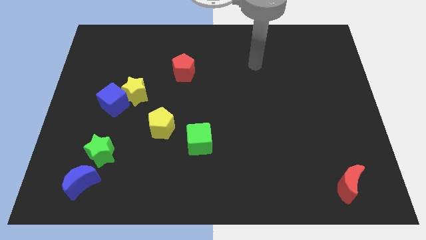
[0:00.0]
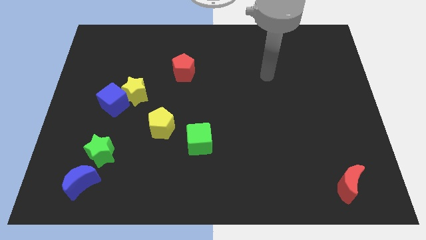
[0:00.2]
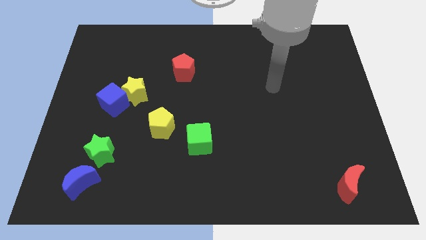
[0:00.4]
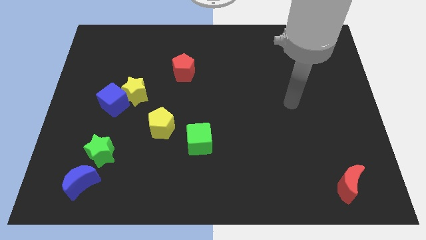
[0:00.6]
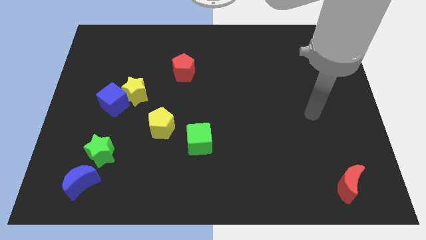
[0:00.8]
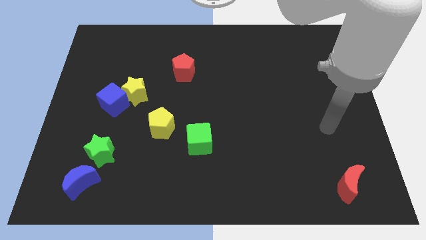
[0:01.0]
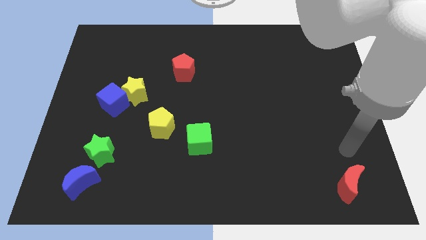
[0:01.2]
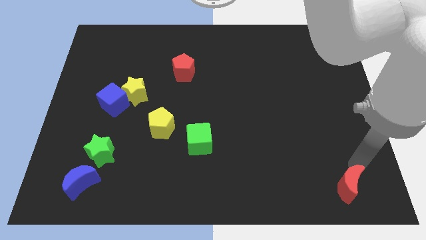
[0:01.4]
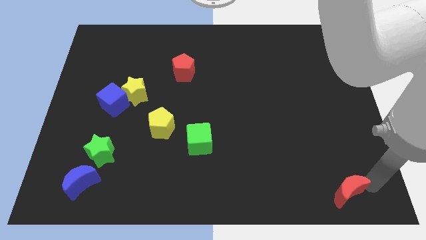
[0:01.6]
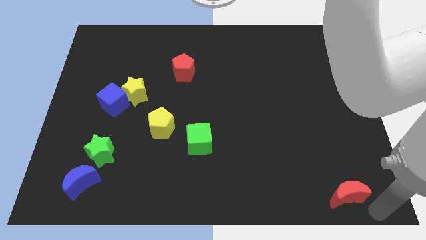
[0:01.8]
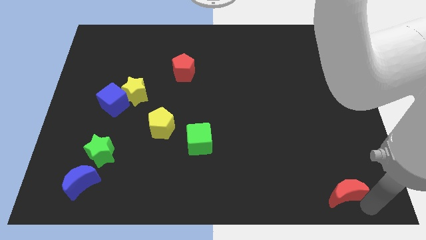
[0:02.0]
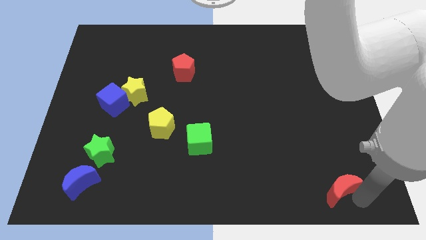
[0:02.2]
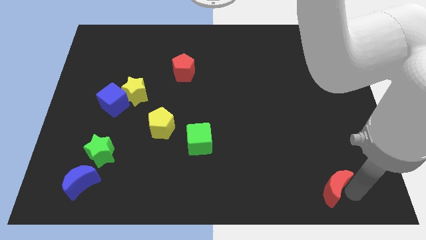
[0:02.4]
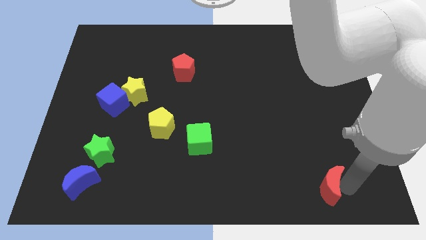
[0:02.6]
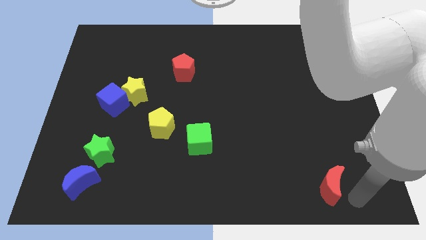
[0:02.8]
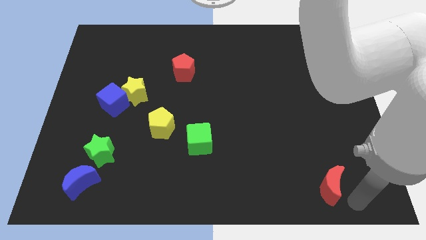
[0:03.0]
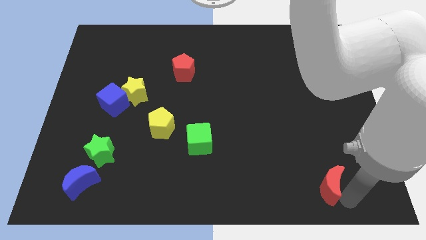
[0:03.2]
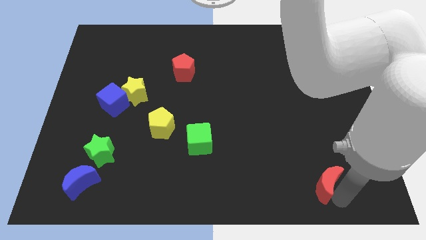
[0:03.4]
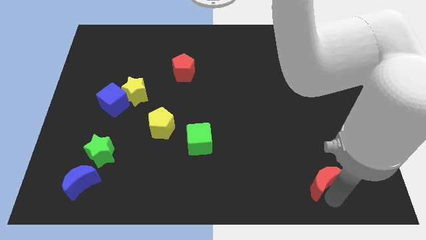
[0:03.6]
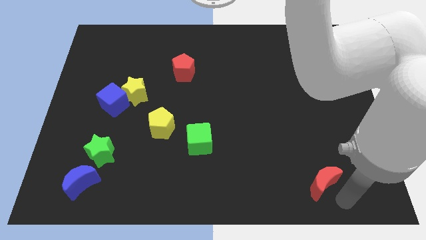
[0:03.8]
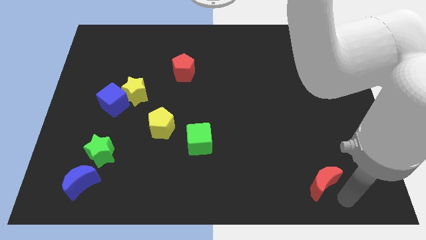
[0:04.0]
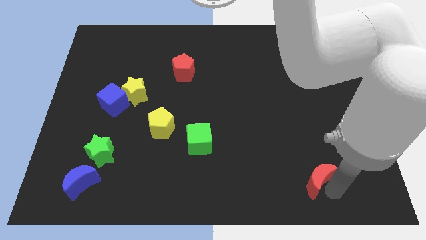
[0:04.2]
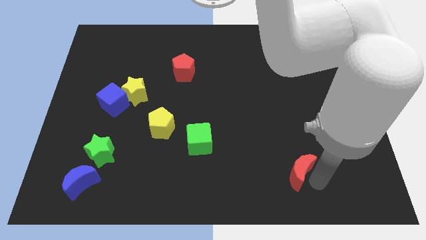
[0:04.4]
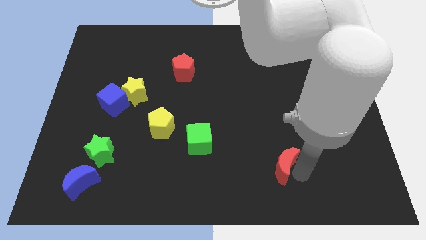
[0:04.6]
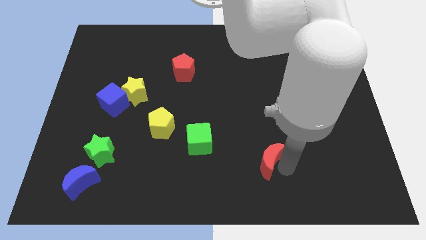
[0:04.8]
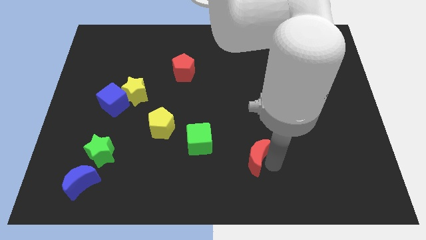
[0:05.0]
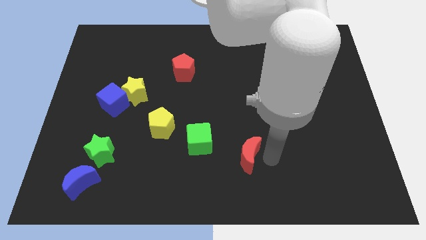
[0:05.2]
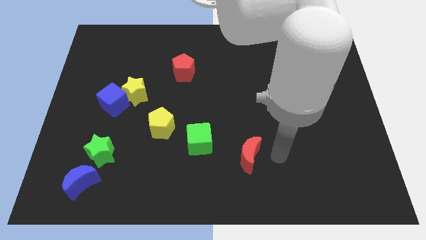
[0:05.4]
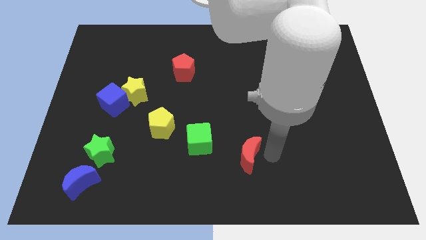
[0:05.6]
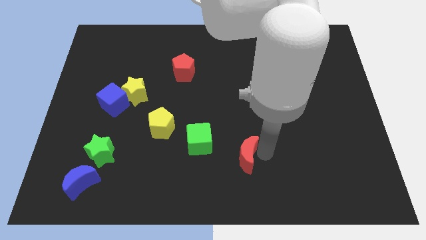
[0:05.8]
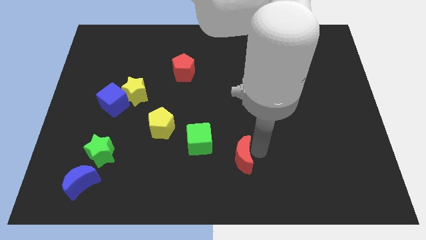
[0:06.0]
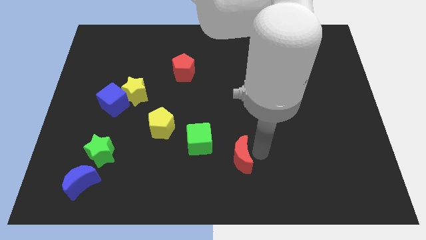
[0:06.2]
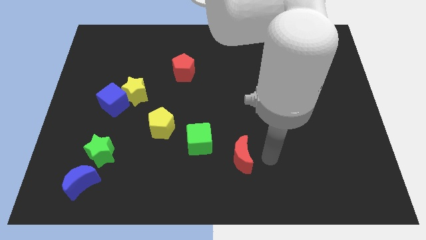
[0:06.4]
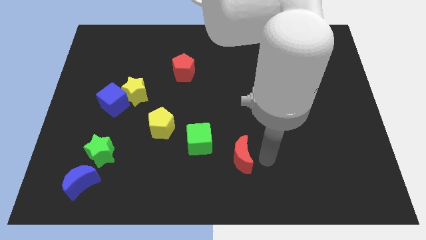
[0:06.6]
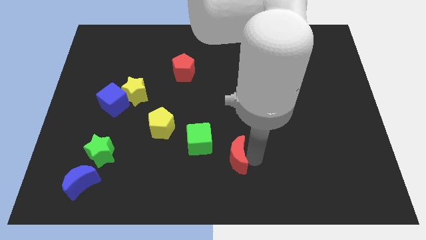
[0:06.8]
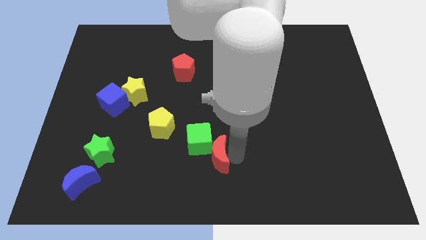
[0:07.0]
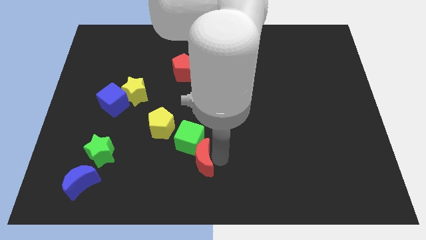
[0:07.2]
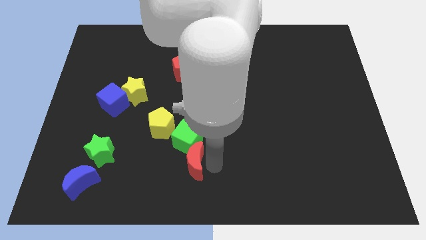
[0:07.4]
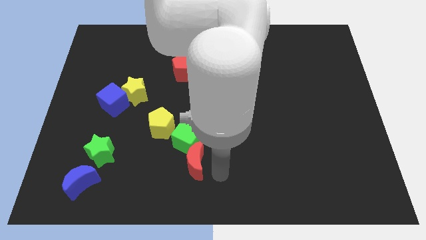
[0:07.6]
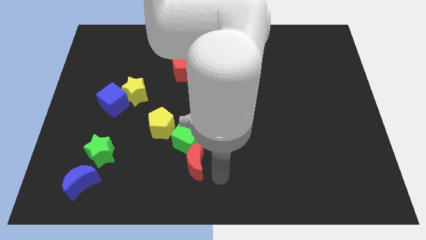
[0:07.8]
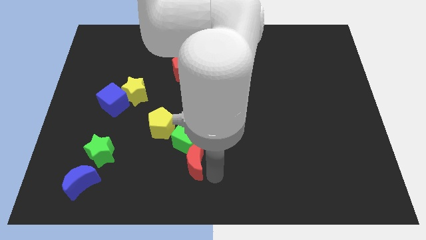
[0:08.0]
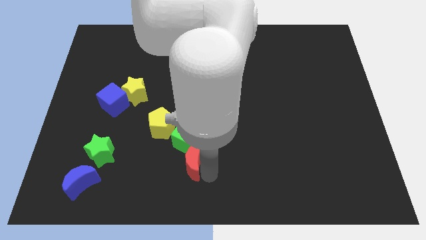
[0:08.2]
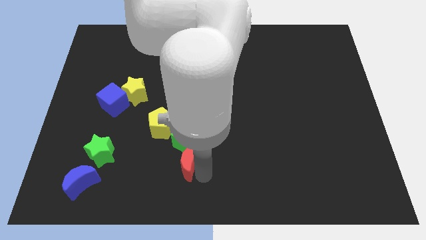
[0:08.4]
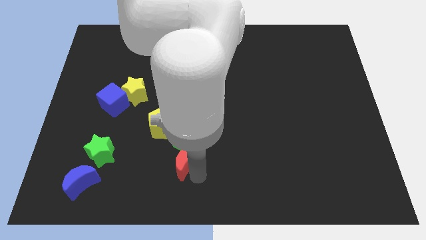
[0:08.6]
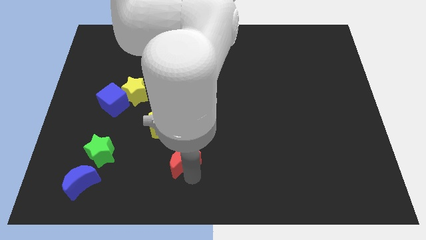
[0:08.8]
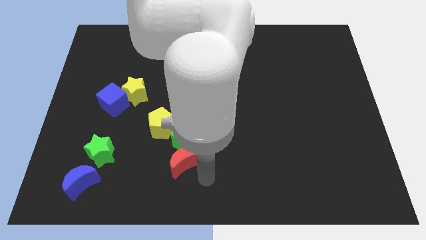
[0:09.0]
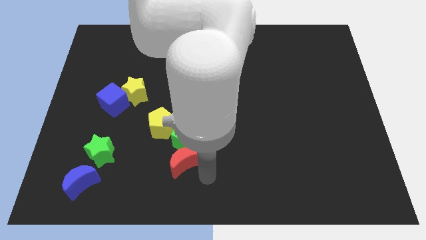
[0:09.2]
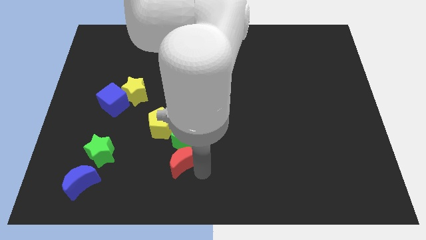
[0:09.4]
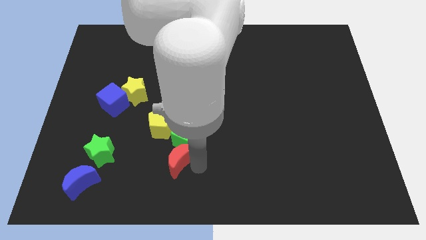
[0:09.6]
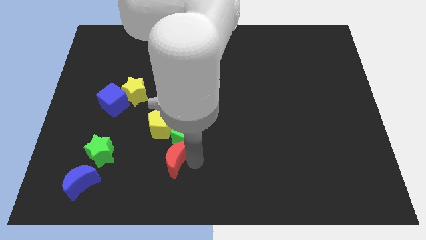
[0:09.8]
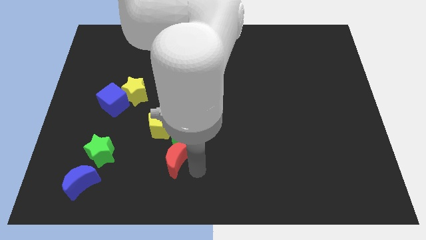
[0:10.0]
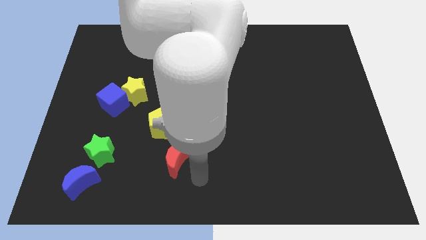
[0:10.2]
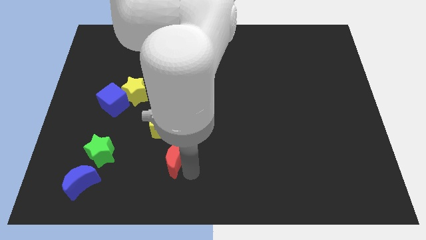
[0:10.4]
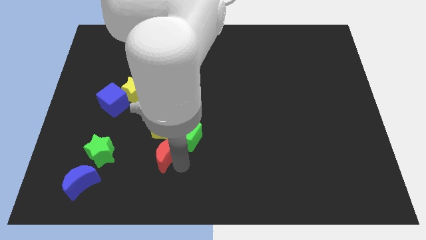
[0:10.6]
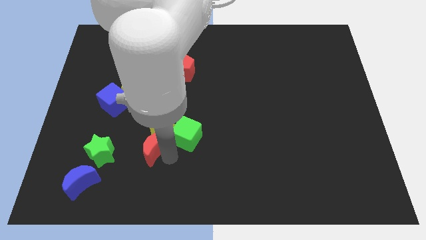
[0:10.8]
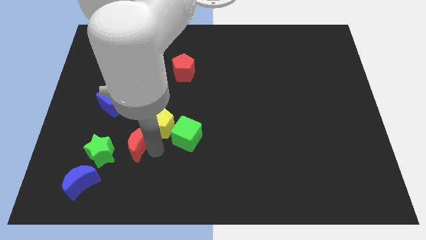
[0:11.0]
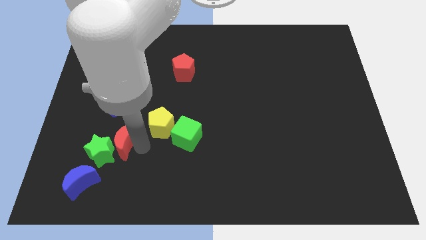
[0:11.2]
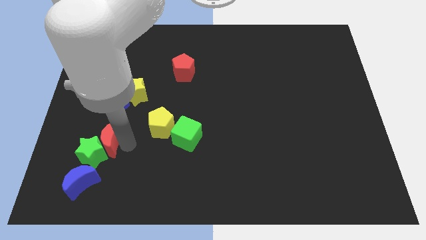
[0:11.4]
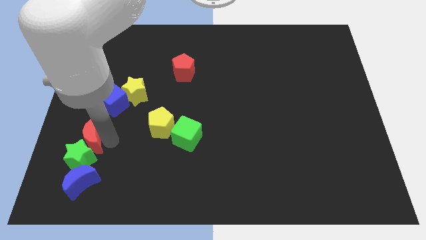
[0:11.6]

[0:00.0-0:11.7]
push the red moon to the top left of the green star

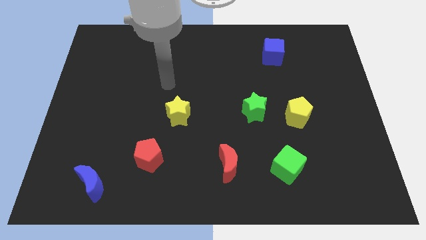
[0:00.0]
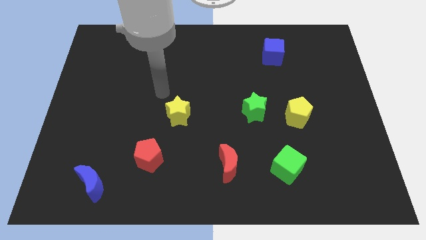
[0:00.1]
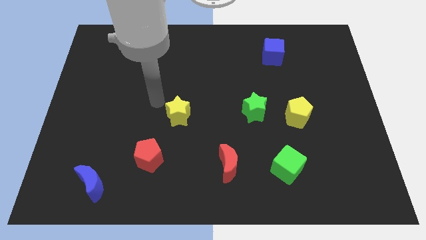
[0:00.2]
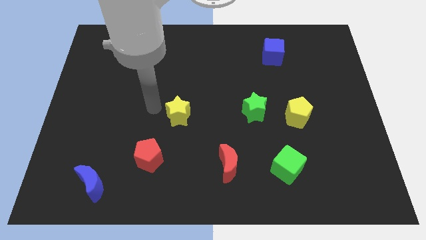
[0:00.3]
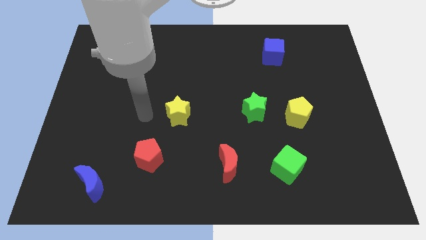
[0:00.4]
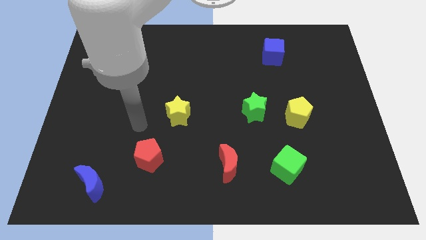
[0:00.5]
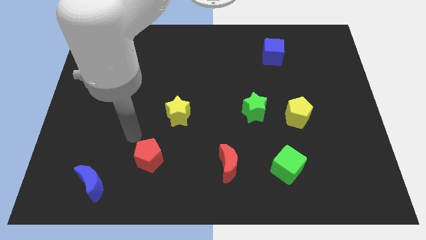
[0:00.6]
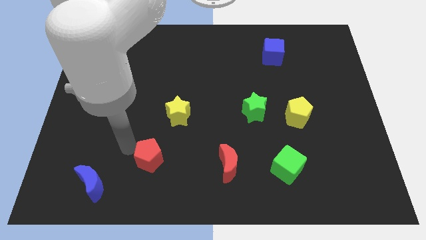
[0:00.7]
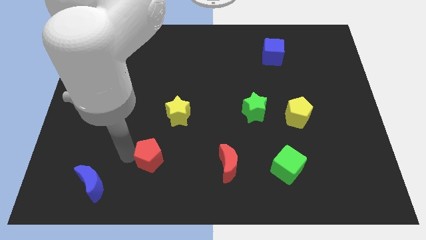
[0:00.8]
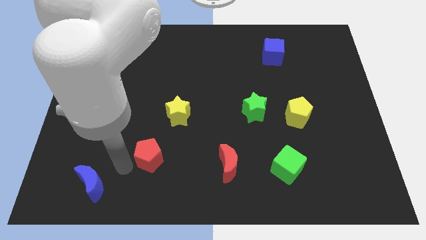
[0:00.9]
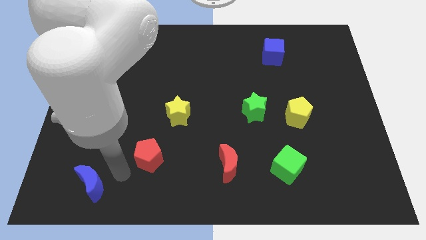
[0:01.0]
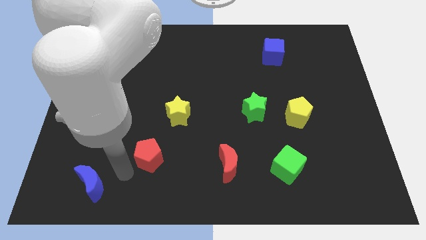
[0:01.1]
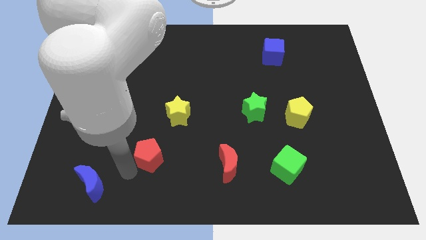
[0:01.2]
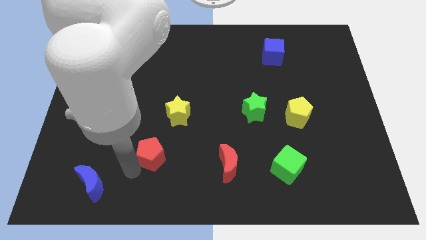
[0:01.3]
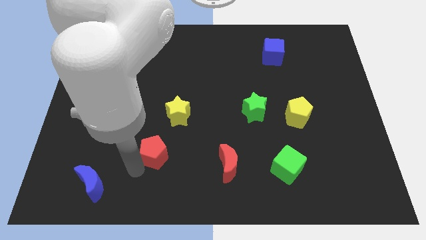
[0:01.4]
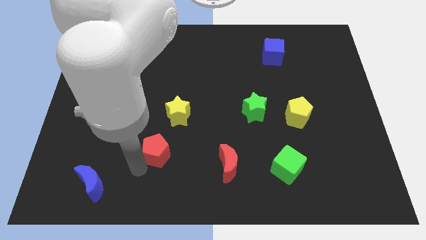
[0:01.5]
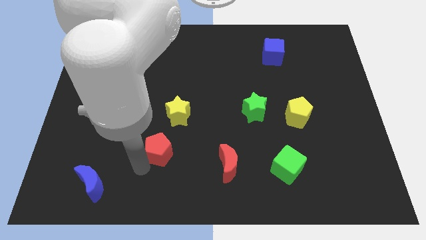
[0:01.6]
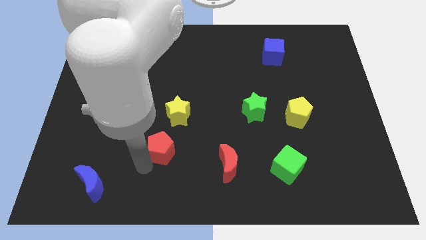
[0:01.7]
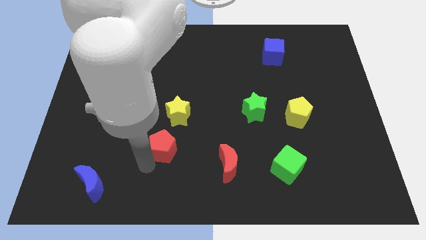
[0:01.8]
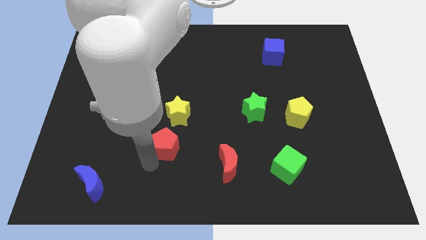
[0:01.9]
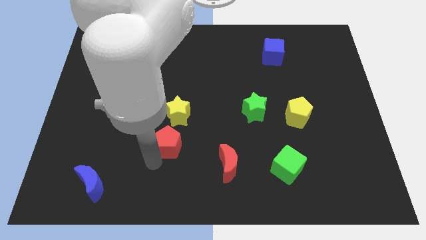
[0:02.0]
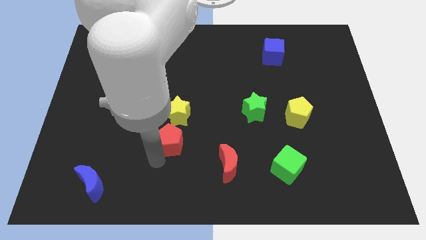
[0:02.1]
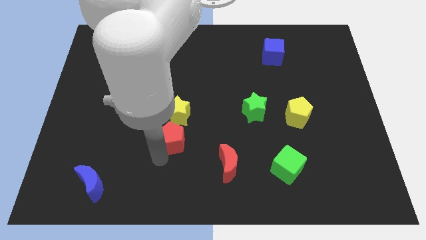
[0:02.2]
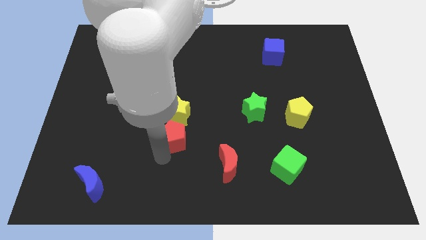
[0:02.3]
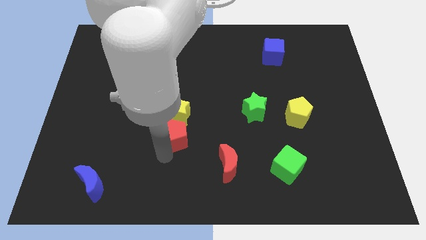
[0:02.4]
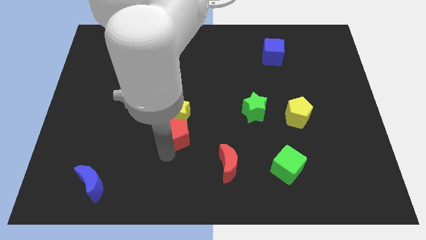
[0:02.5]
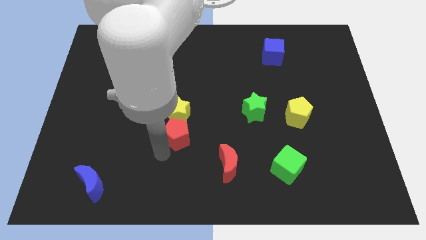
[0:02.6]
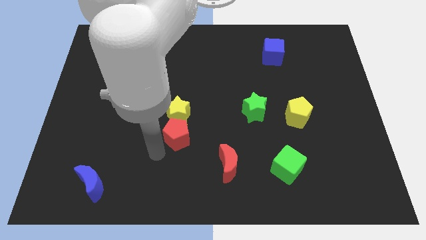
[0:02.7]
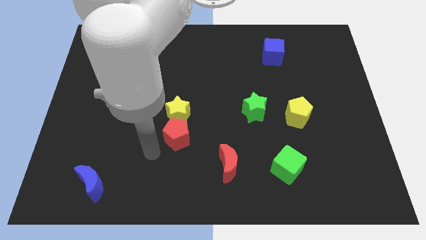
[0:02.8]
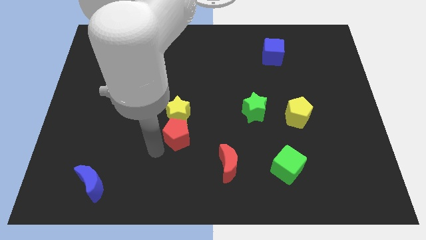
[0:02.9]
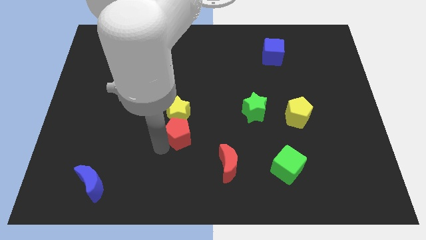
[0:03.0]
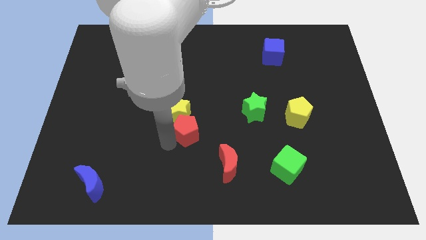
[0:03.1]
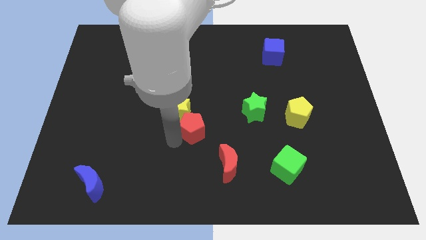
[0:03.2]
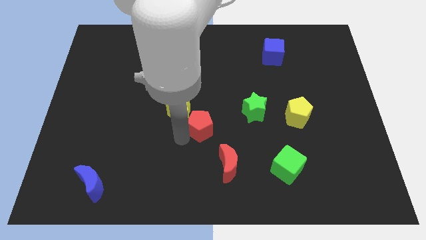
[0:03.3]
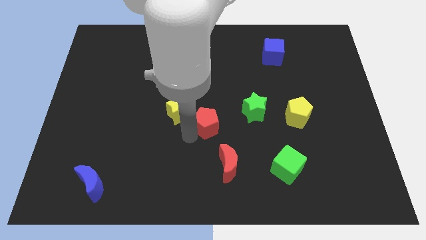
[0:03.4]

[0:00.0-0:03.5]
move the red pentagon to the left side of the green star
